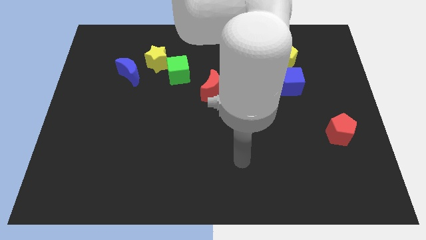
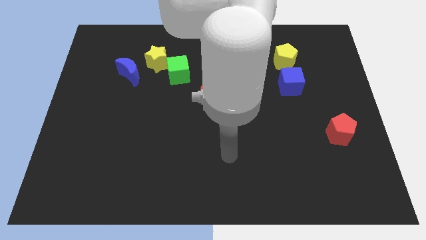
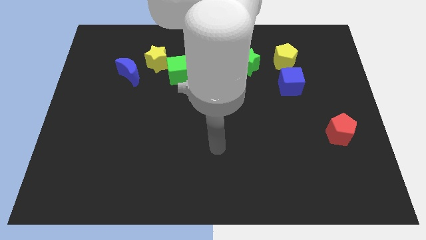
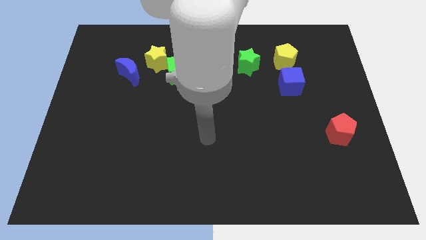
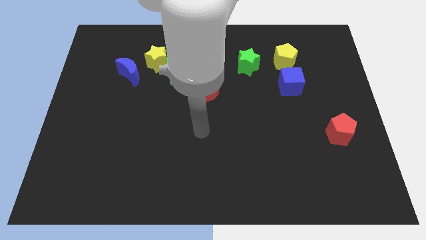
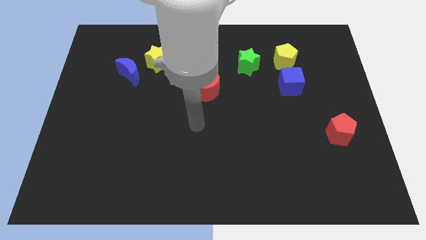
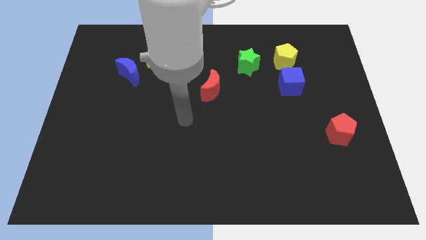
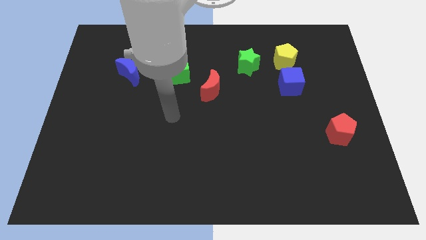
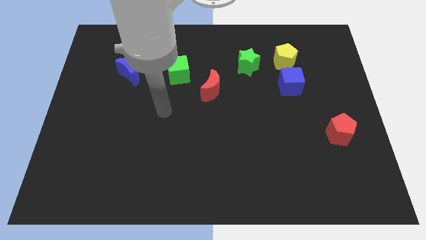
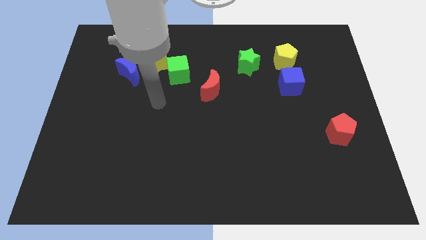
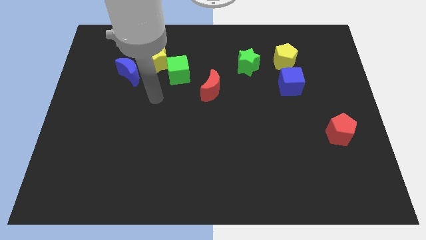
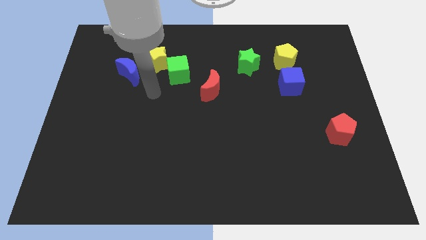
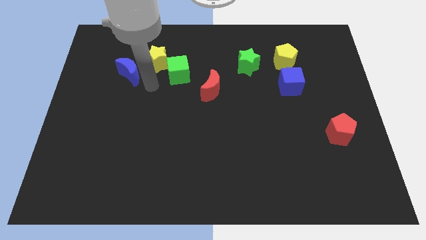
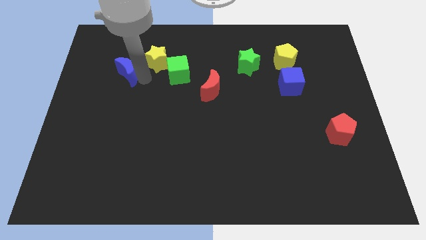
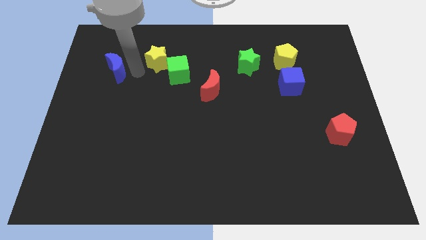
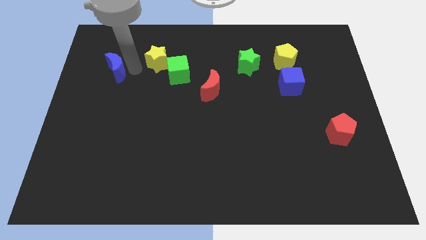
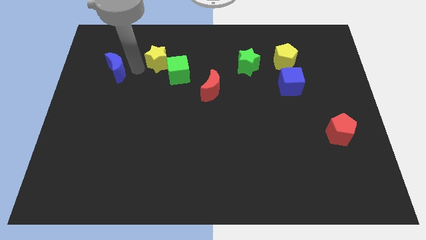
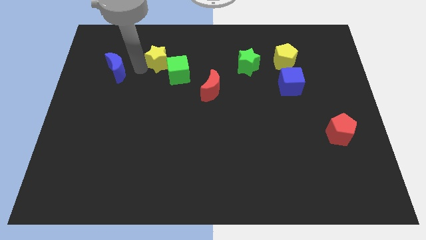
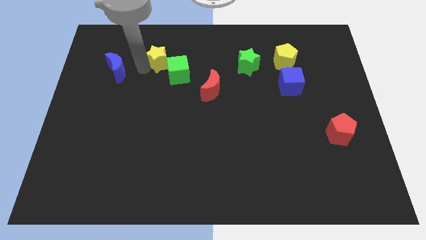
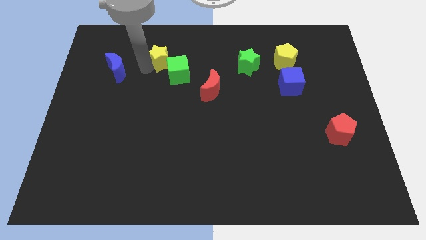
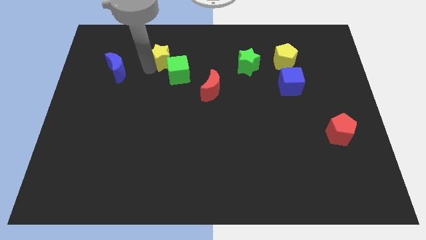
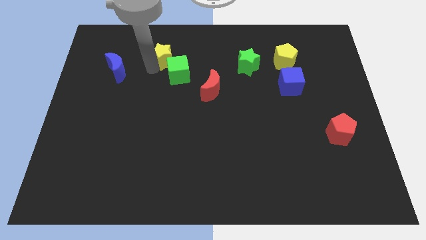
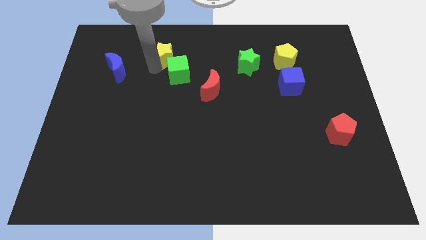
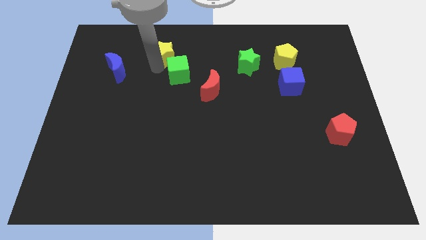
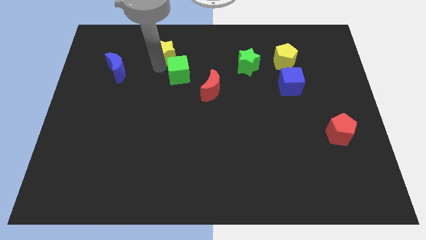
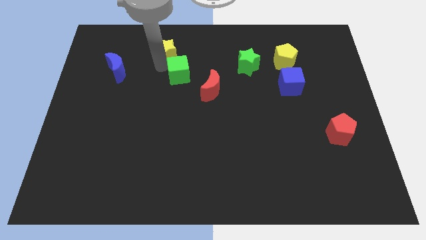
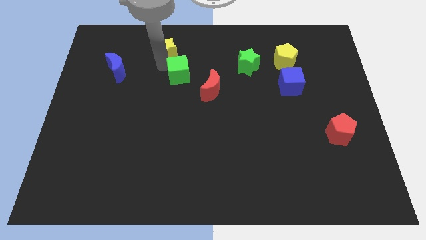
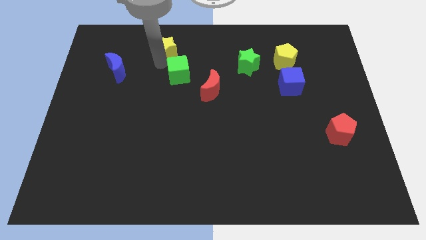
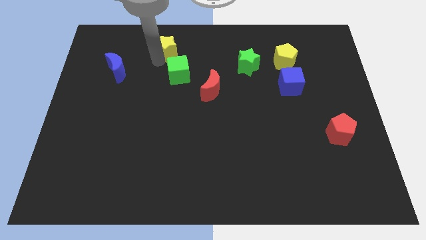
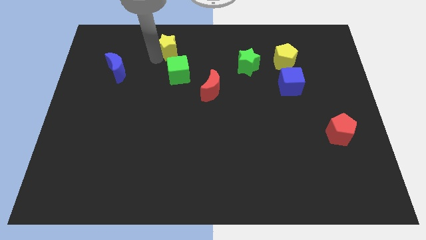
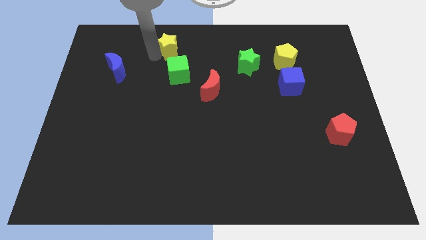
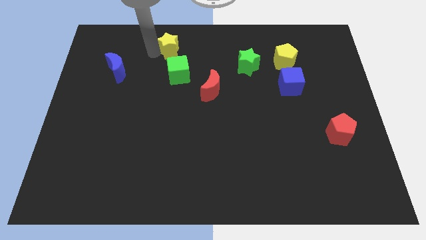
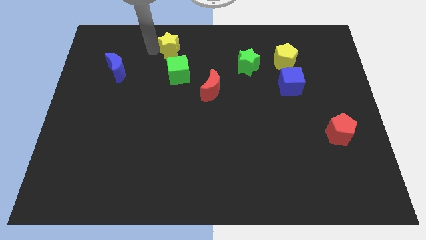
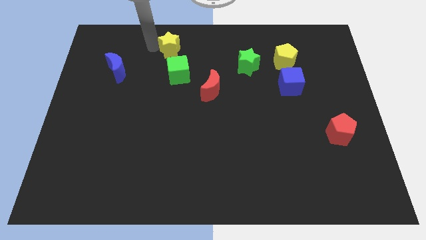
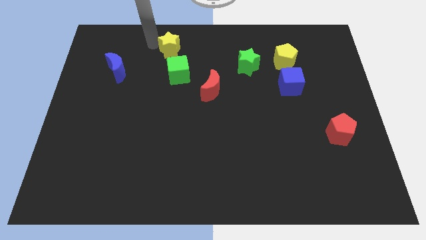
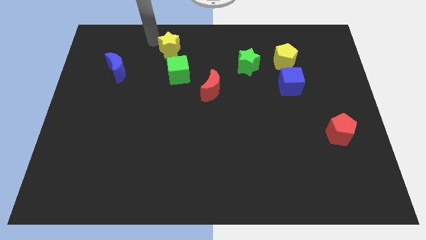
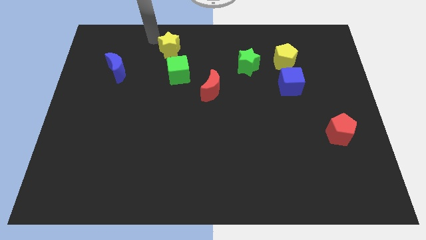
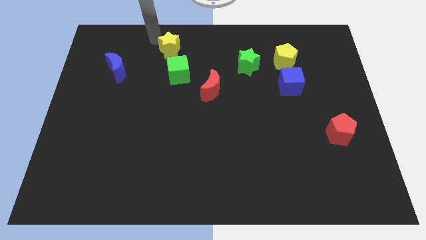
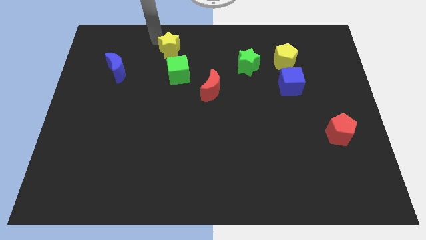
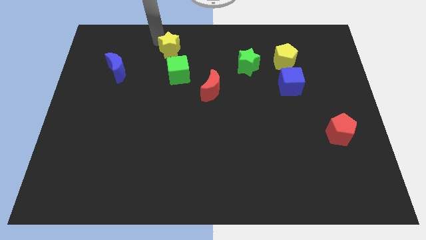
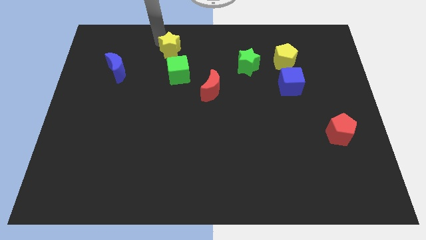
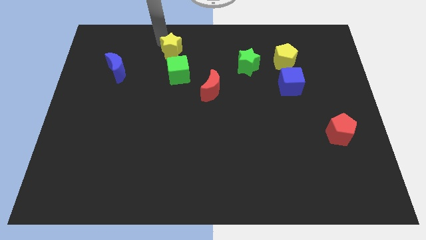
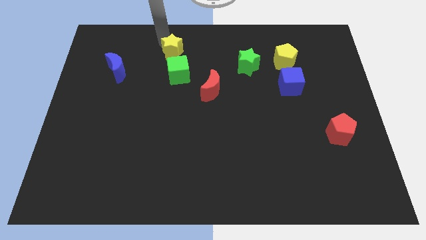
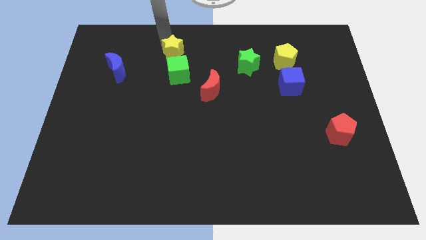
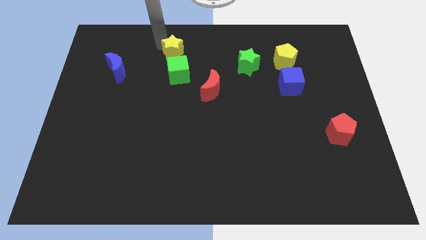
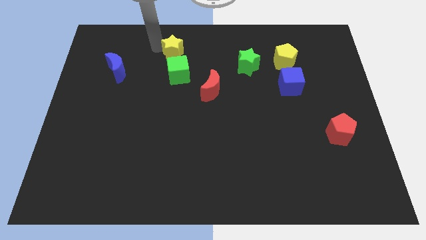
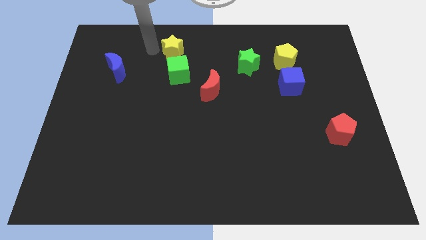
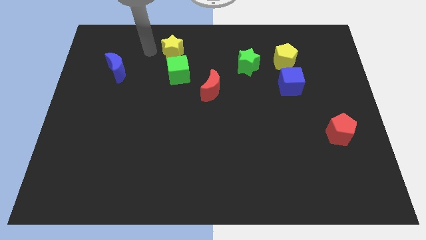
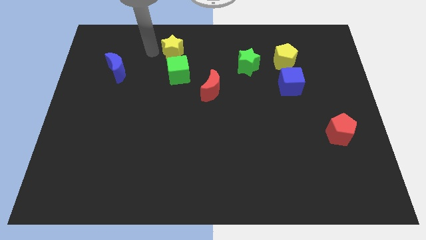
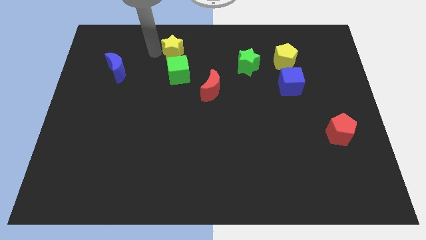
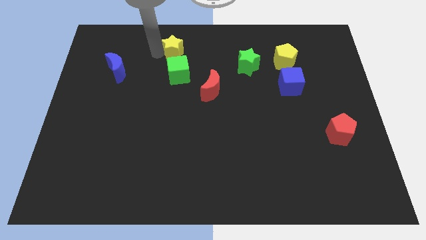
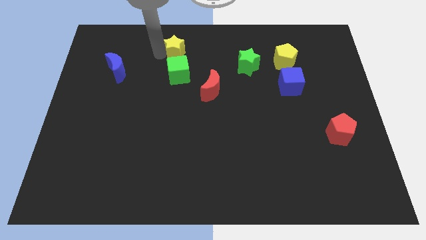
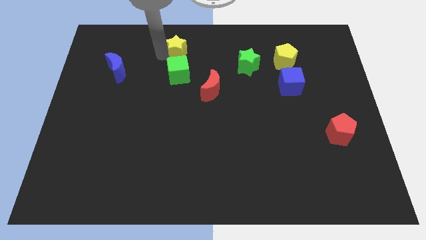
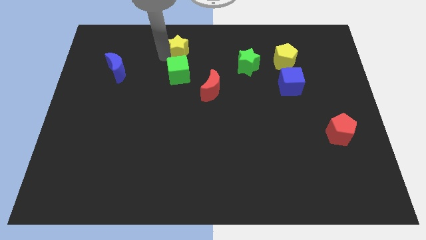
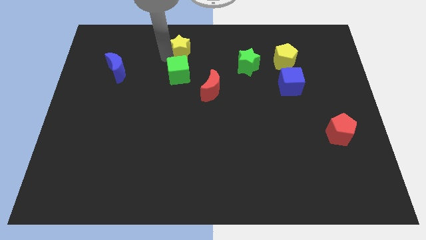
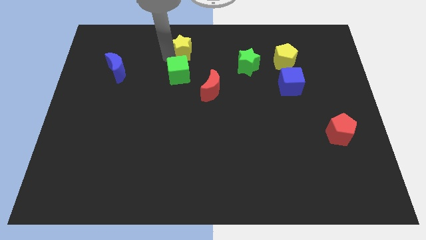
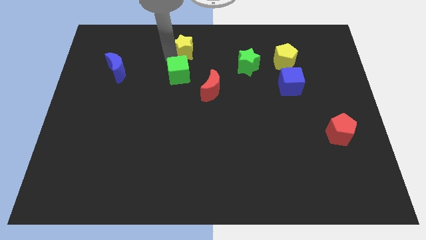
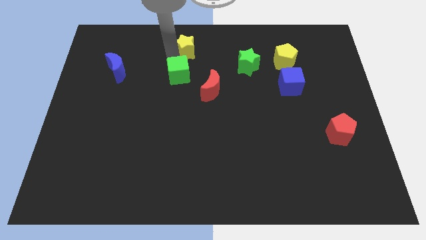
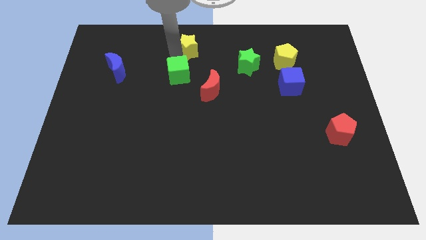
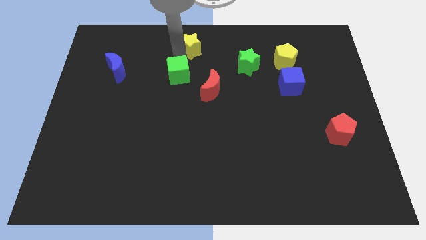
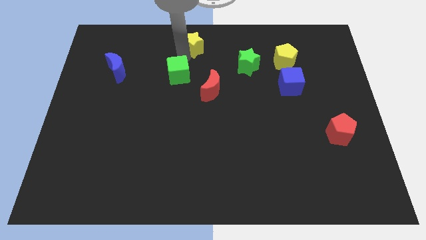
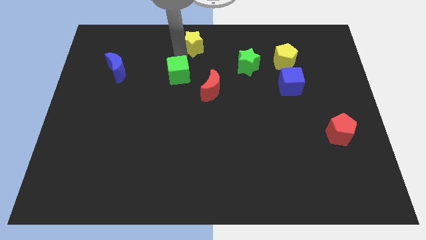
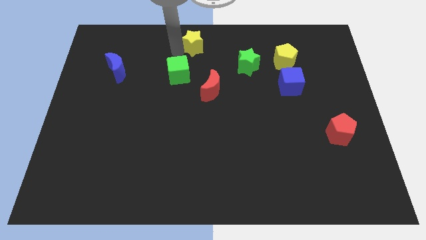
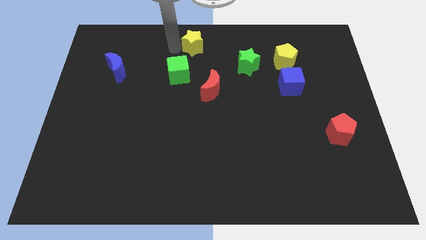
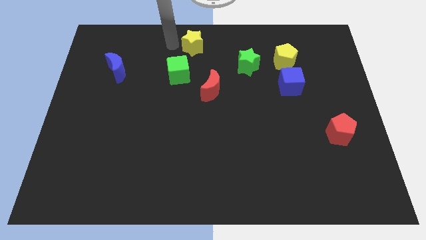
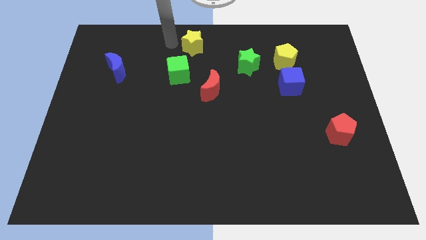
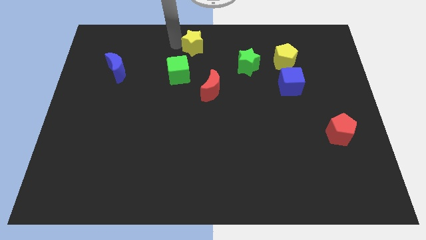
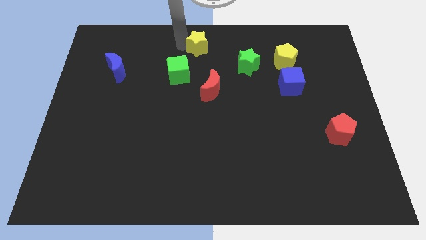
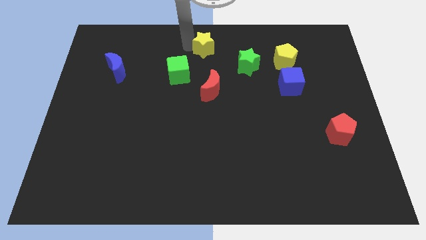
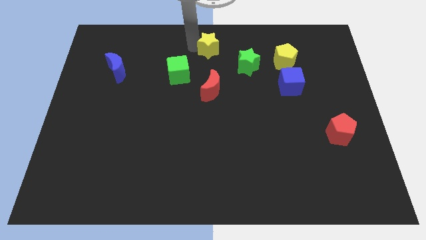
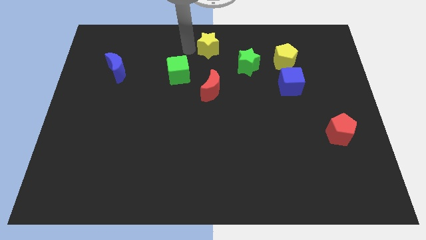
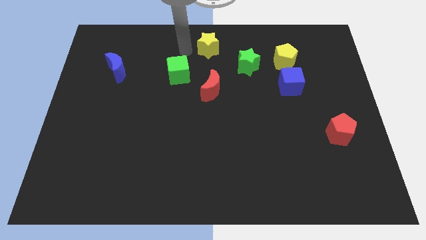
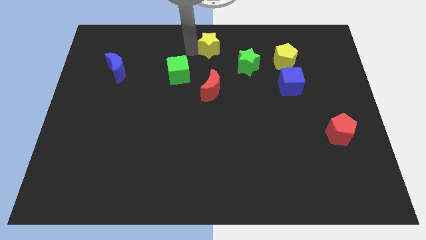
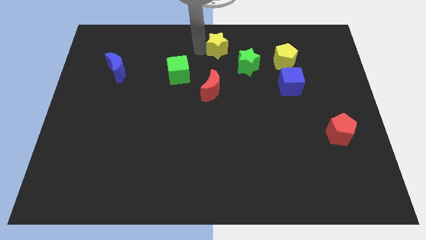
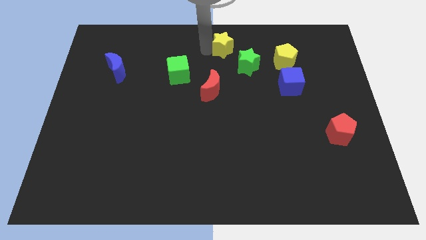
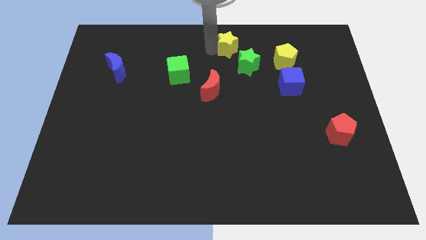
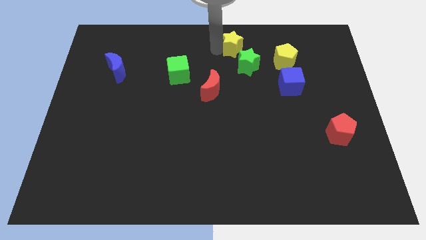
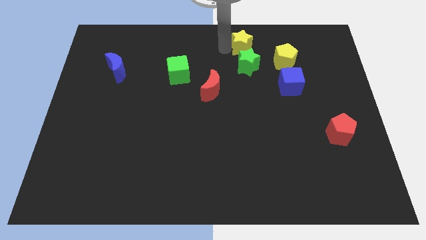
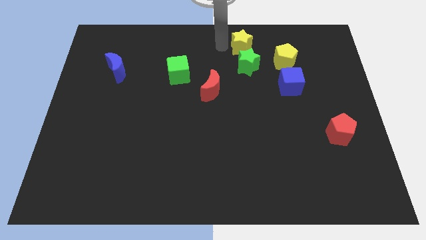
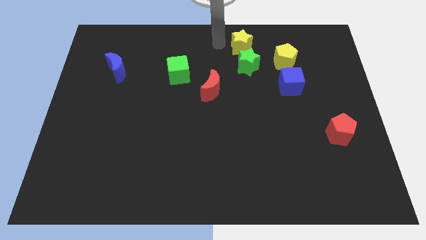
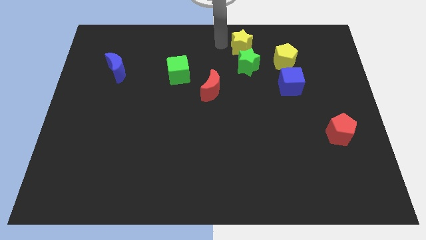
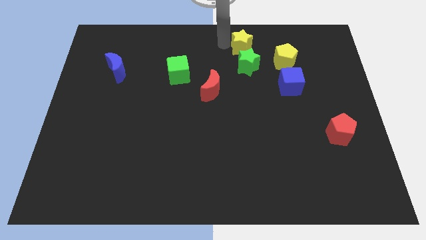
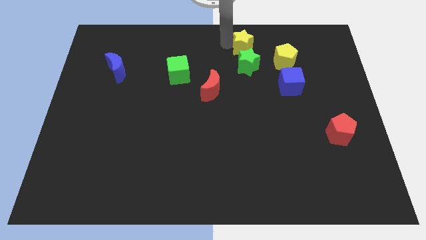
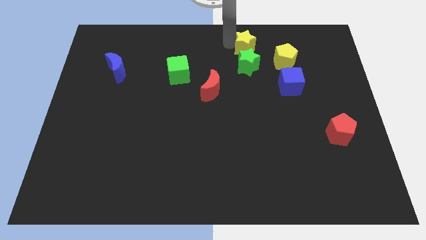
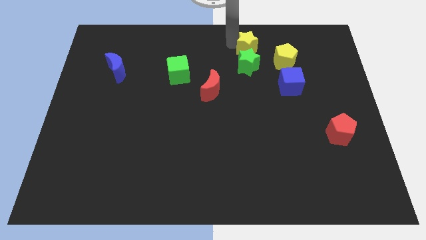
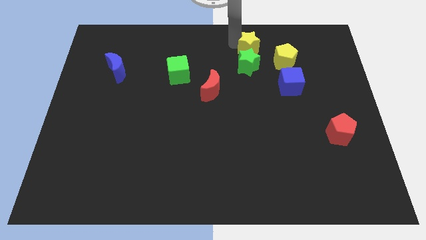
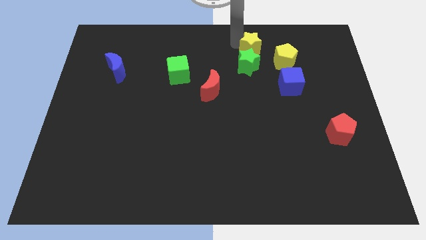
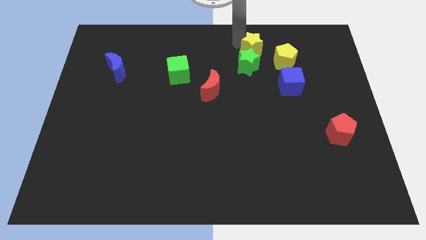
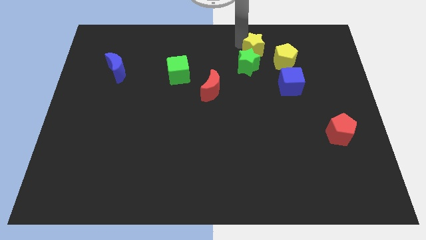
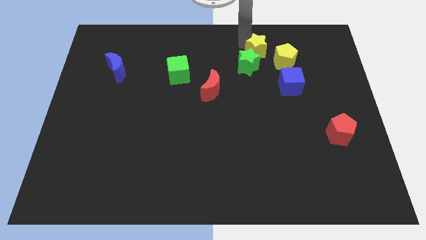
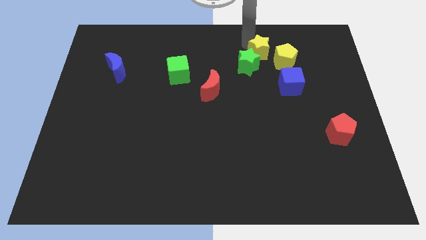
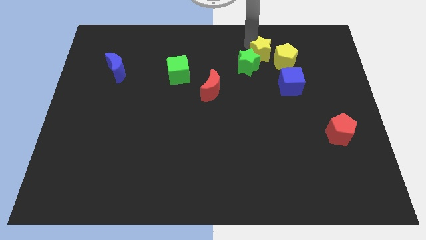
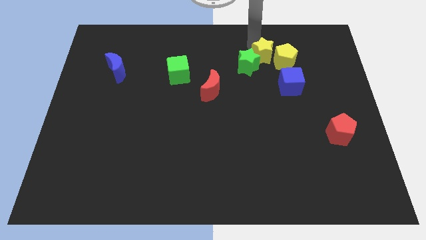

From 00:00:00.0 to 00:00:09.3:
slide the yellow star close to the yellow pentagon
